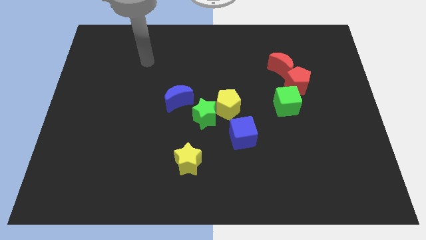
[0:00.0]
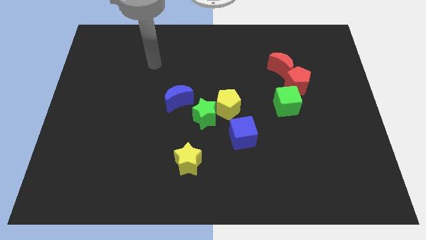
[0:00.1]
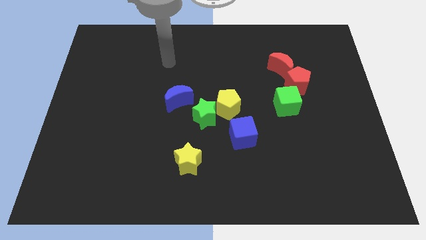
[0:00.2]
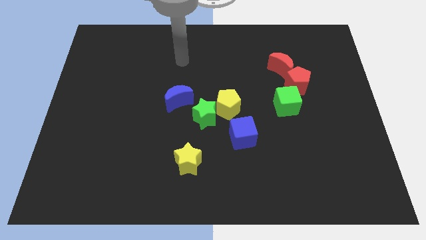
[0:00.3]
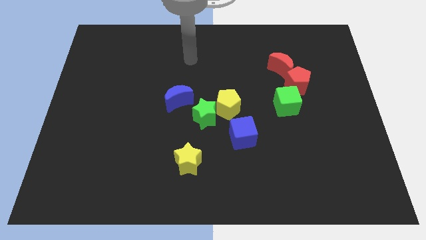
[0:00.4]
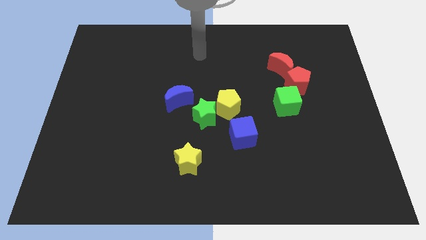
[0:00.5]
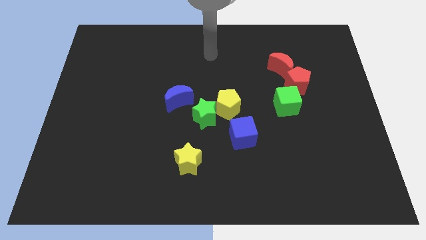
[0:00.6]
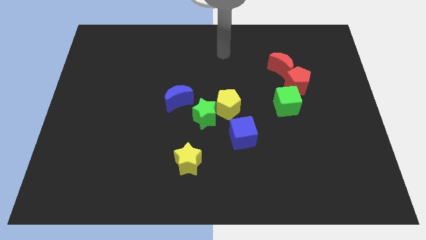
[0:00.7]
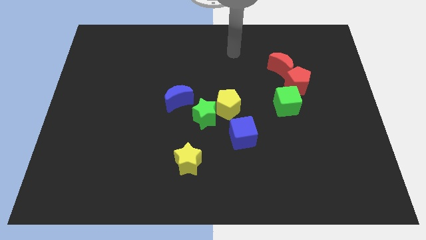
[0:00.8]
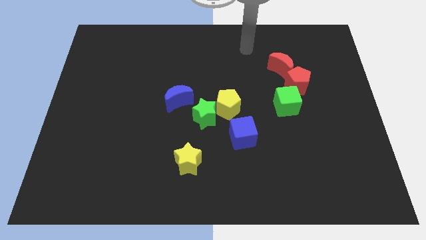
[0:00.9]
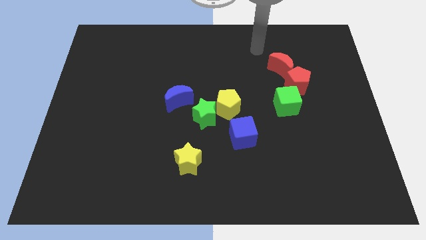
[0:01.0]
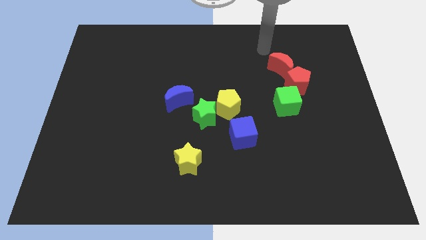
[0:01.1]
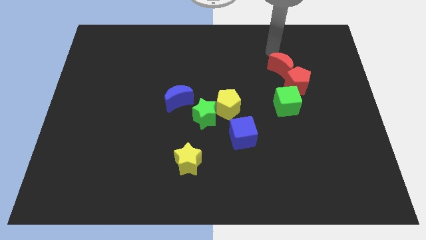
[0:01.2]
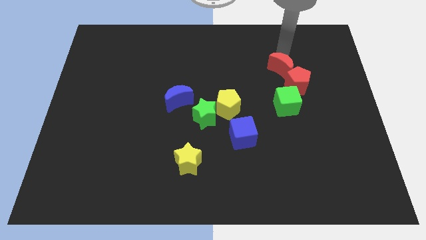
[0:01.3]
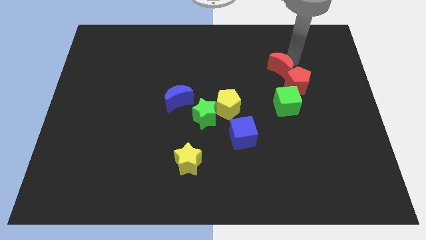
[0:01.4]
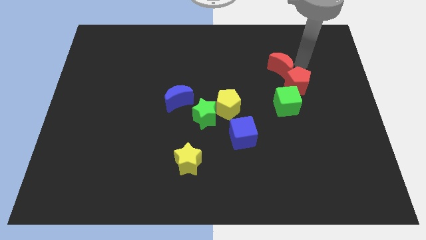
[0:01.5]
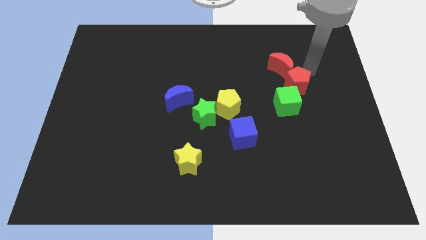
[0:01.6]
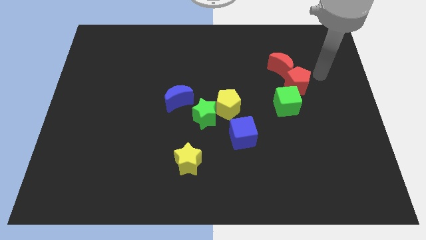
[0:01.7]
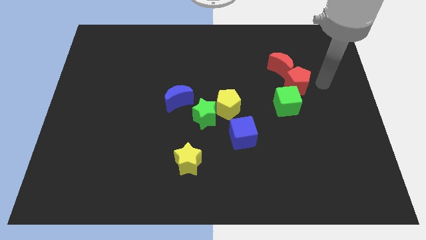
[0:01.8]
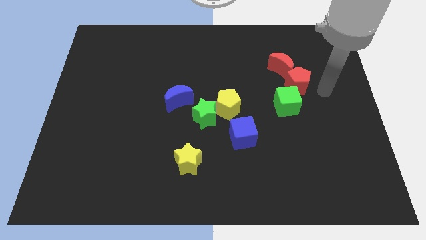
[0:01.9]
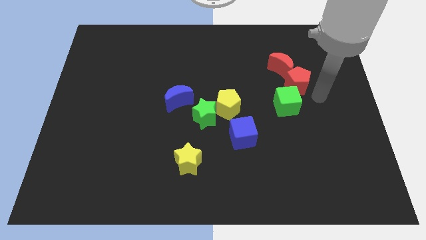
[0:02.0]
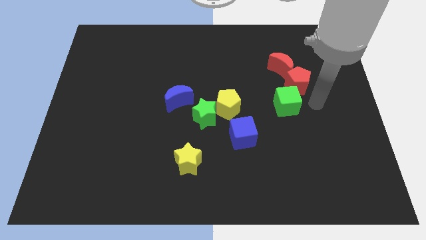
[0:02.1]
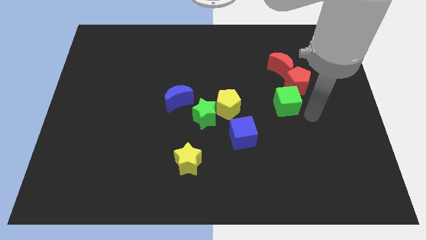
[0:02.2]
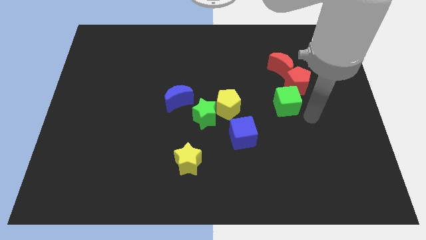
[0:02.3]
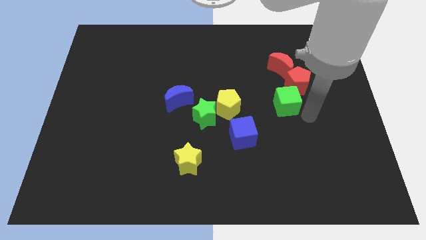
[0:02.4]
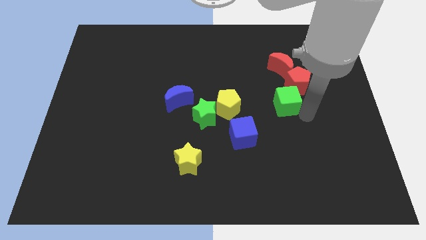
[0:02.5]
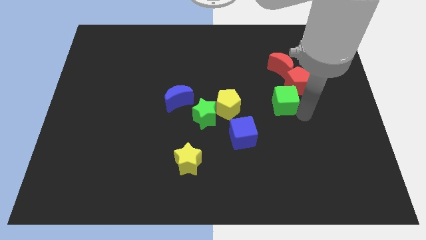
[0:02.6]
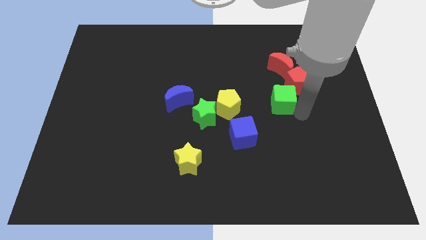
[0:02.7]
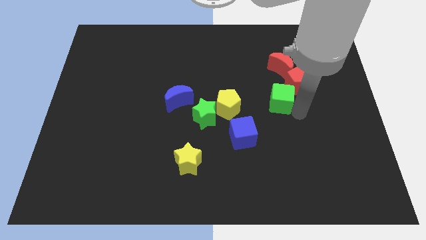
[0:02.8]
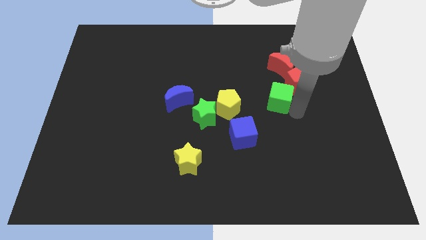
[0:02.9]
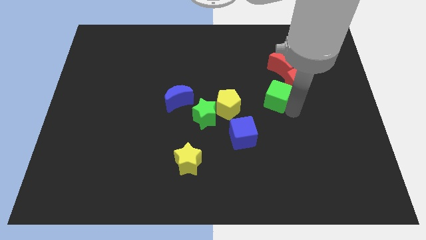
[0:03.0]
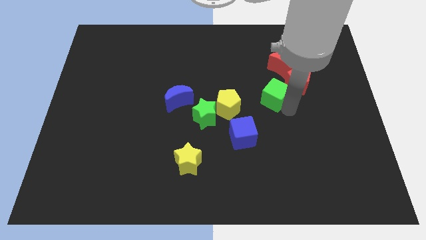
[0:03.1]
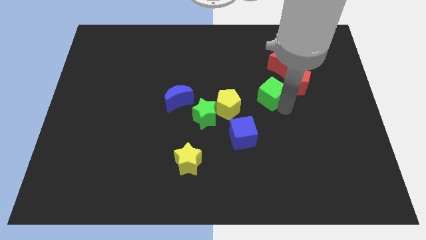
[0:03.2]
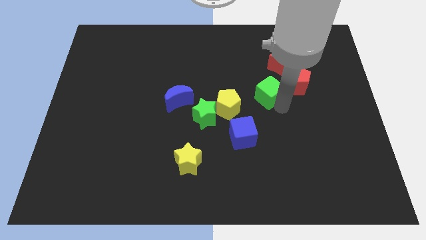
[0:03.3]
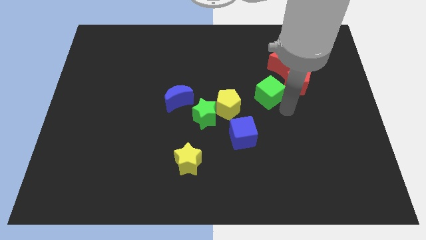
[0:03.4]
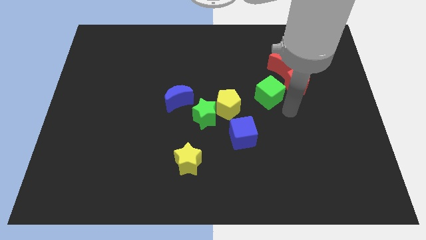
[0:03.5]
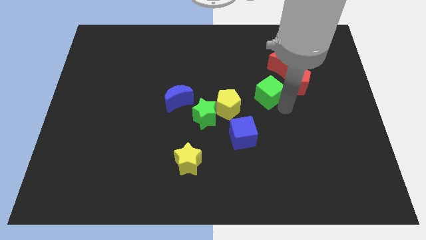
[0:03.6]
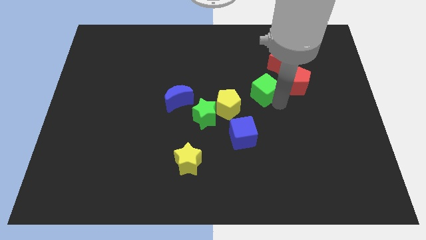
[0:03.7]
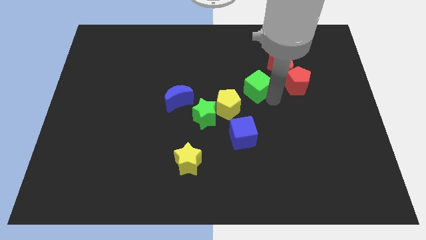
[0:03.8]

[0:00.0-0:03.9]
push the green cube upwards and then left slightly

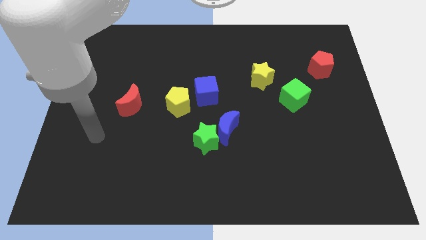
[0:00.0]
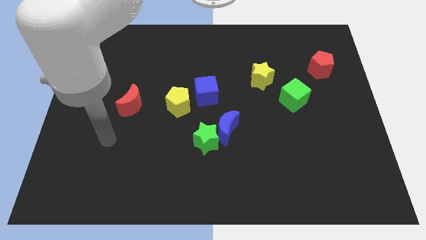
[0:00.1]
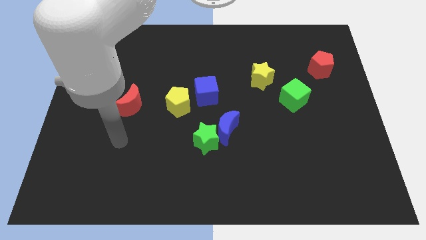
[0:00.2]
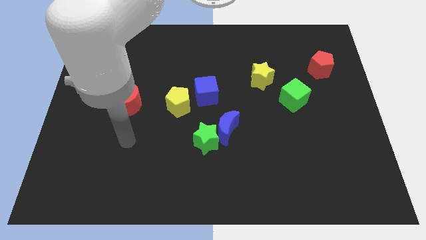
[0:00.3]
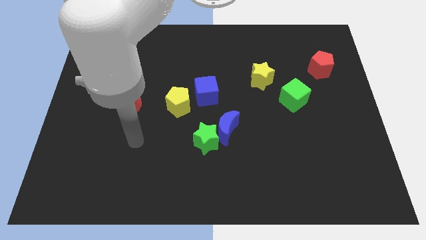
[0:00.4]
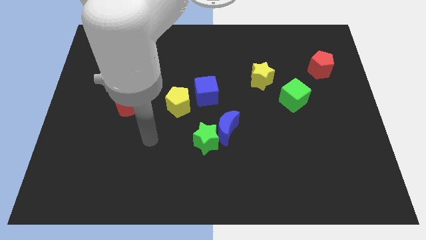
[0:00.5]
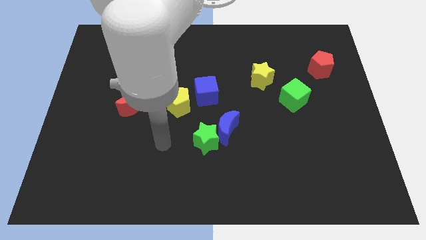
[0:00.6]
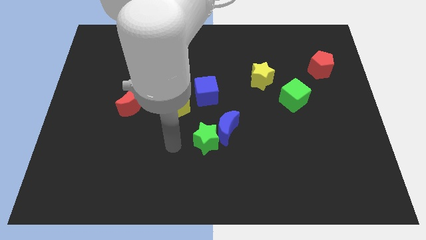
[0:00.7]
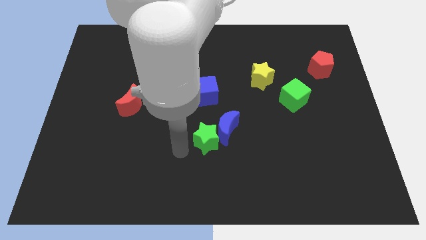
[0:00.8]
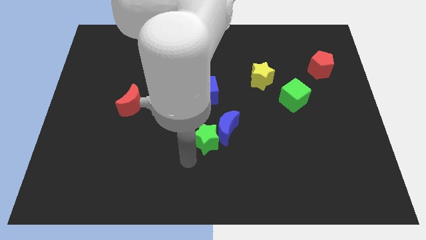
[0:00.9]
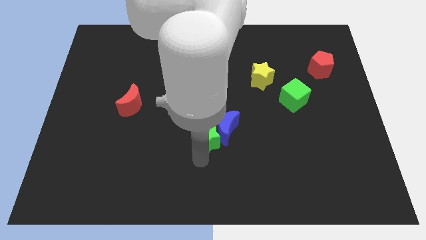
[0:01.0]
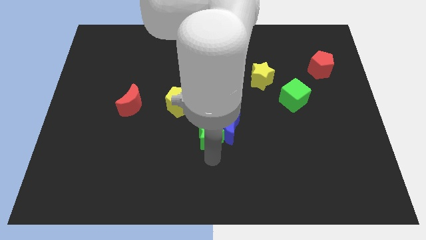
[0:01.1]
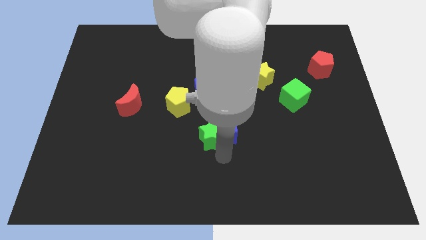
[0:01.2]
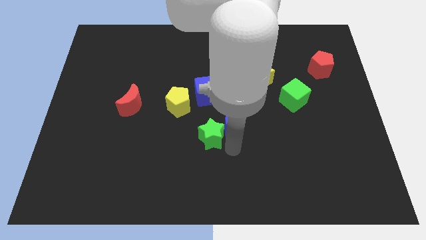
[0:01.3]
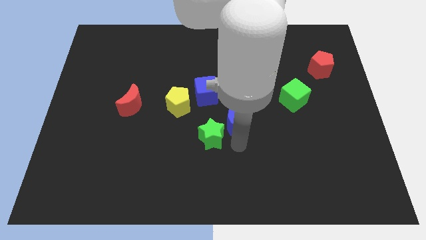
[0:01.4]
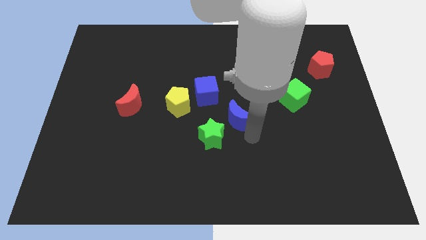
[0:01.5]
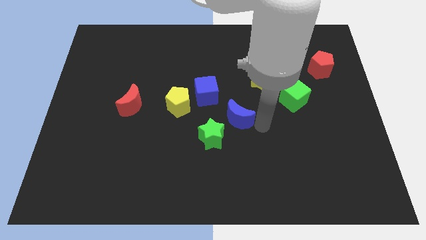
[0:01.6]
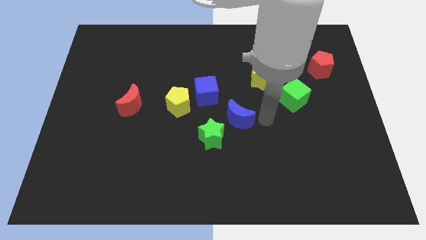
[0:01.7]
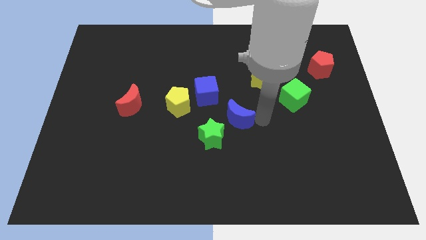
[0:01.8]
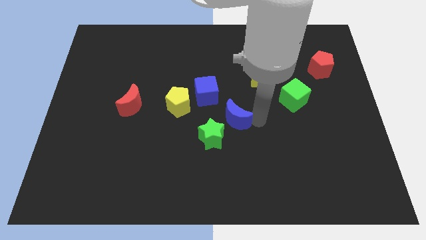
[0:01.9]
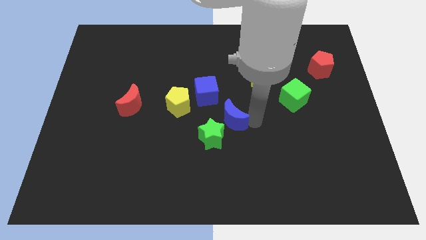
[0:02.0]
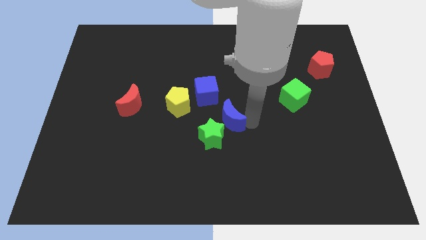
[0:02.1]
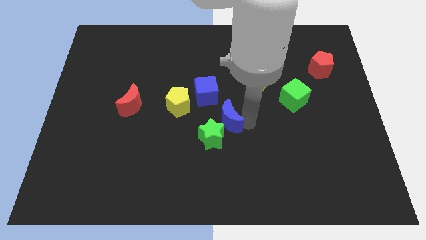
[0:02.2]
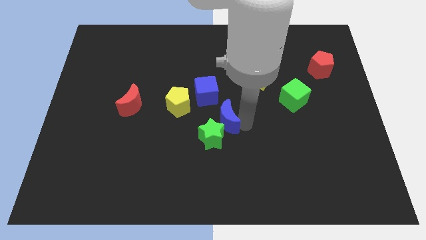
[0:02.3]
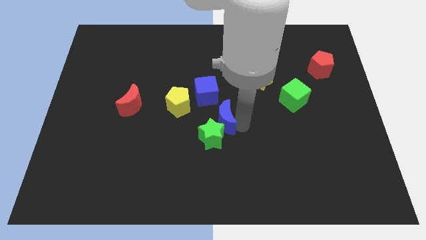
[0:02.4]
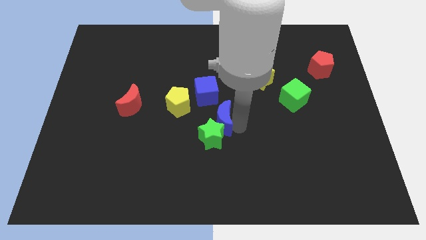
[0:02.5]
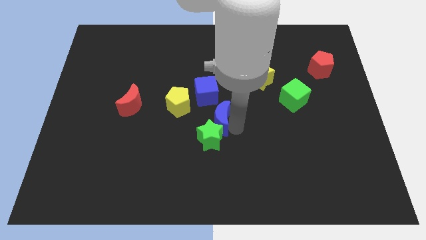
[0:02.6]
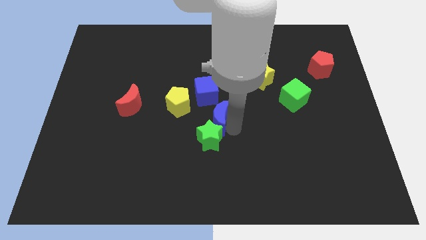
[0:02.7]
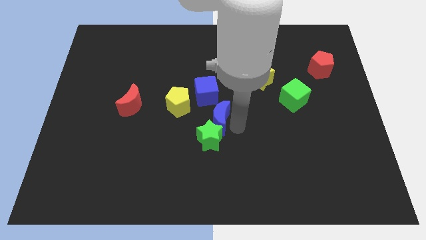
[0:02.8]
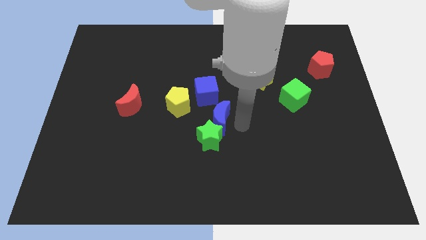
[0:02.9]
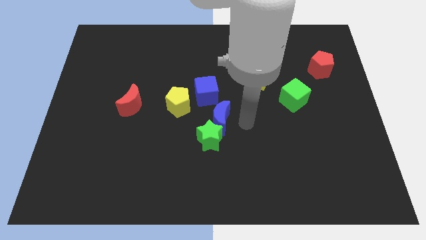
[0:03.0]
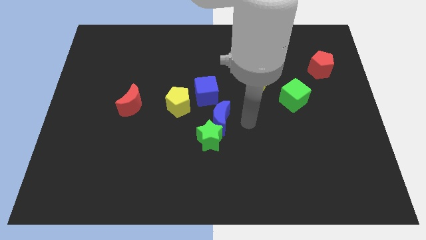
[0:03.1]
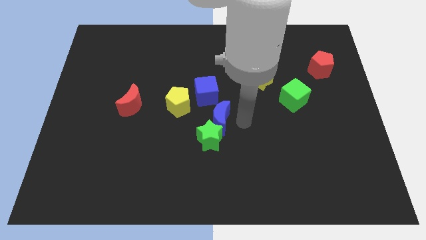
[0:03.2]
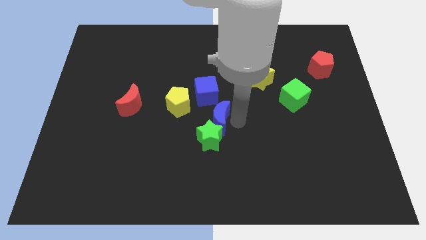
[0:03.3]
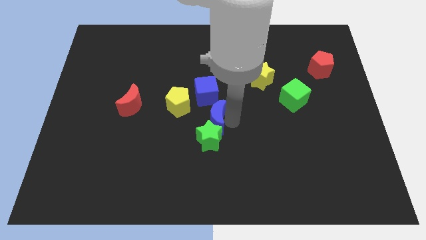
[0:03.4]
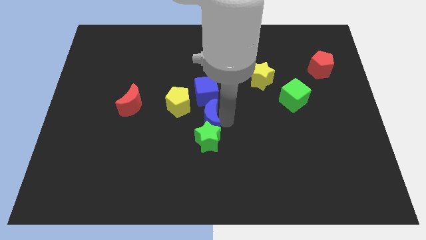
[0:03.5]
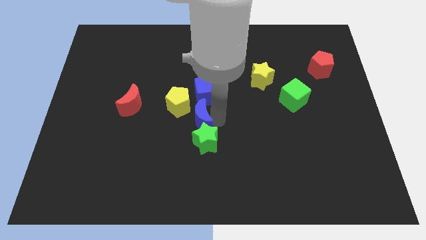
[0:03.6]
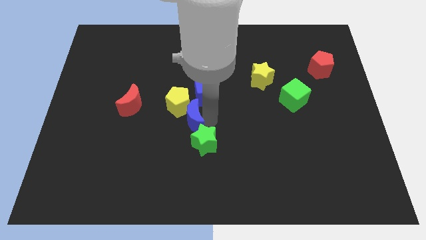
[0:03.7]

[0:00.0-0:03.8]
push the blue moon somewhat up and to the left

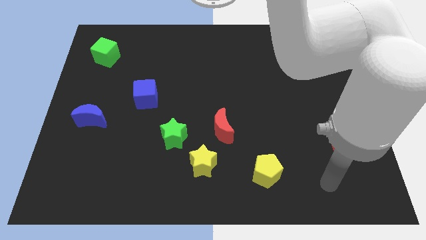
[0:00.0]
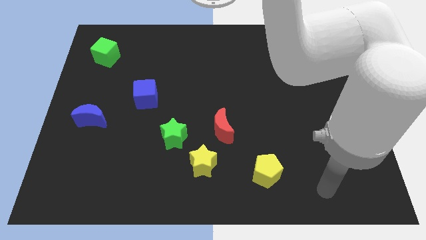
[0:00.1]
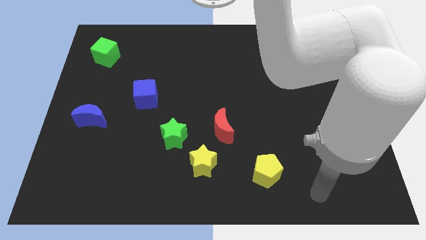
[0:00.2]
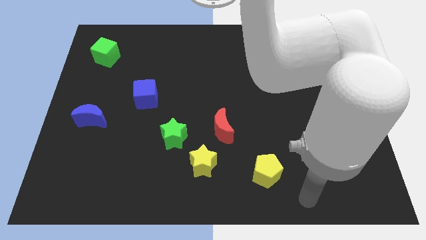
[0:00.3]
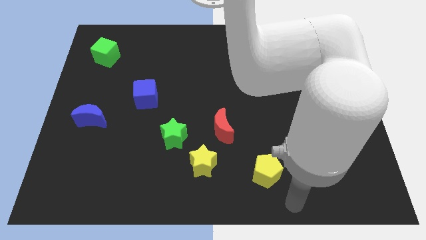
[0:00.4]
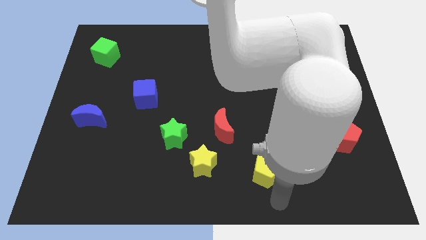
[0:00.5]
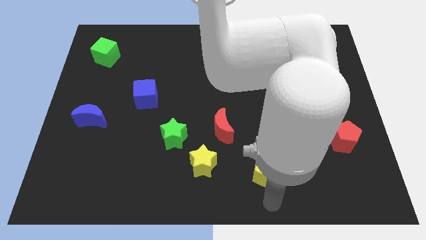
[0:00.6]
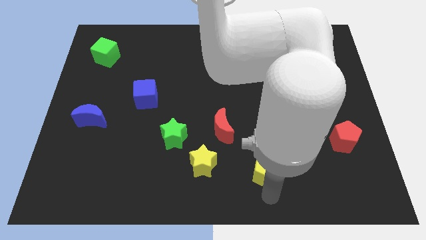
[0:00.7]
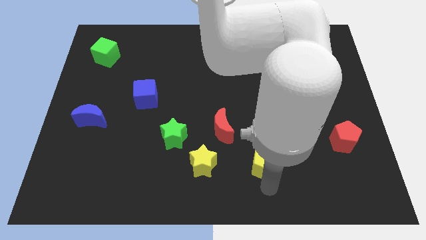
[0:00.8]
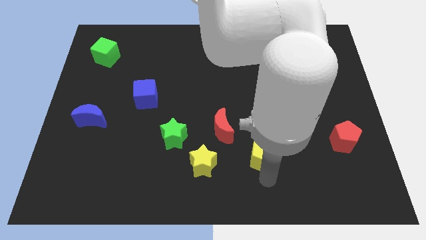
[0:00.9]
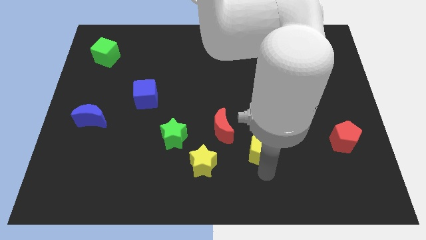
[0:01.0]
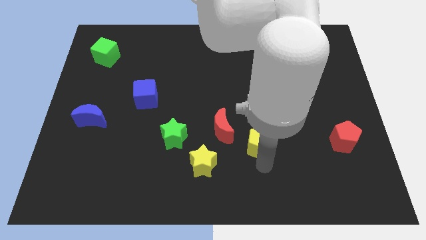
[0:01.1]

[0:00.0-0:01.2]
slightly move the yellow pentagon up
